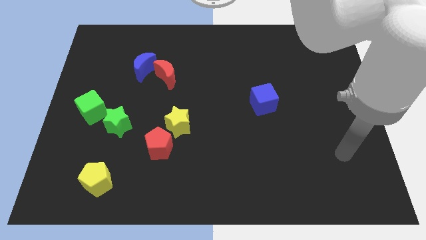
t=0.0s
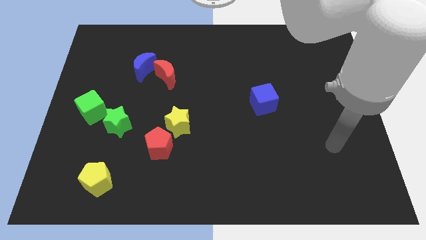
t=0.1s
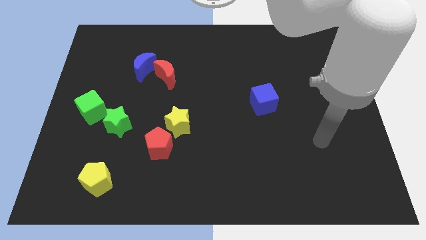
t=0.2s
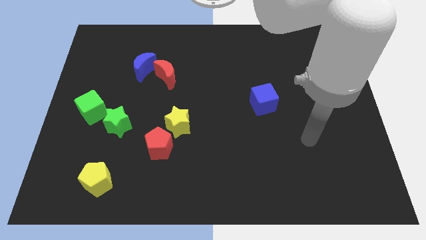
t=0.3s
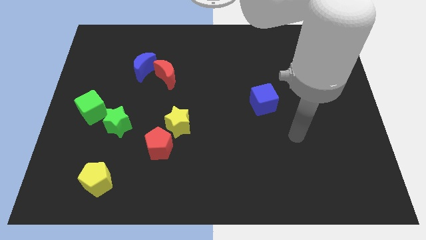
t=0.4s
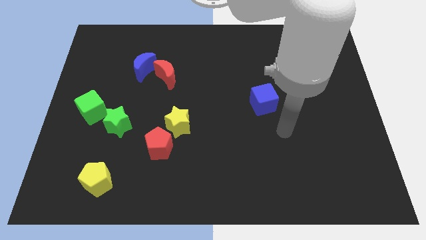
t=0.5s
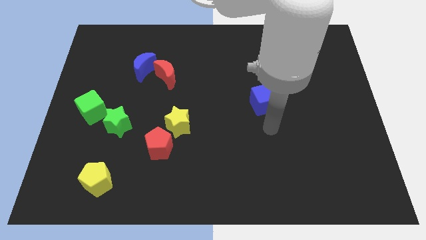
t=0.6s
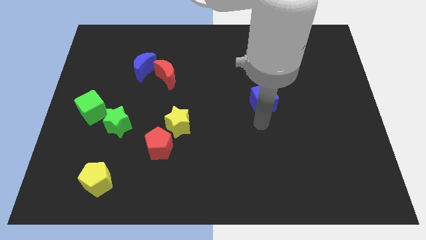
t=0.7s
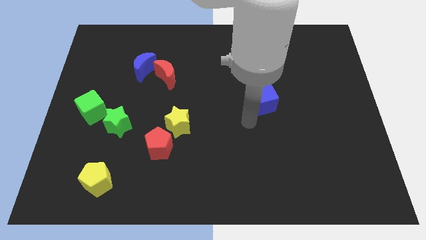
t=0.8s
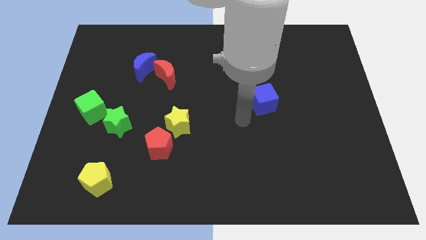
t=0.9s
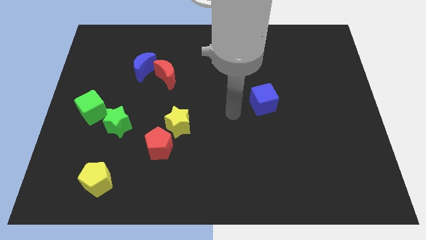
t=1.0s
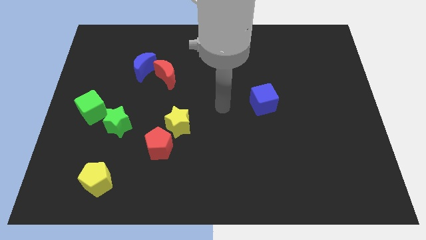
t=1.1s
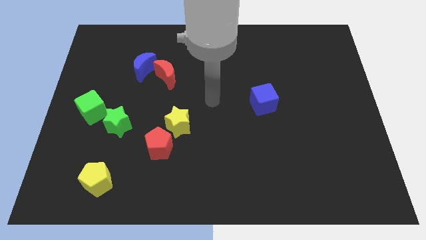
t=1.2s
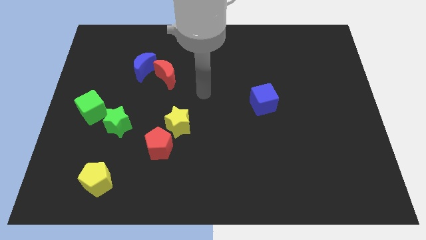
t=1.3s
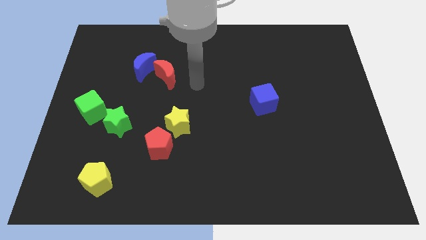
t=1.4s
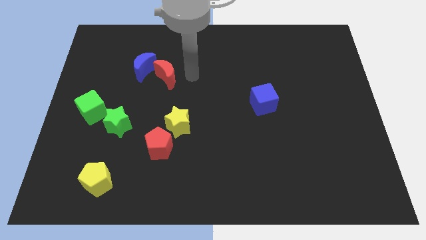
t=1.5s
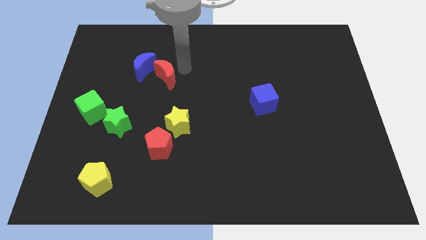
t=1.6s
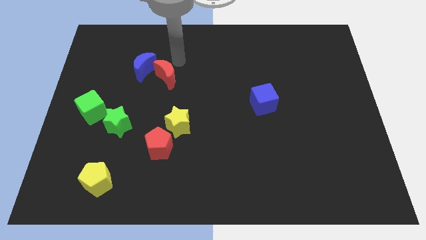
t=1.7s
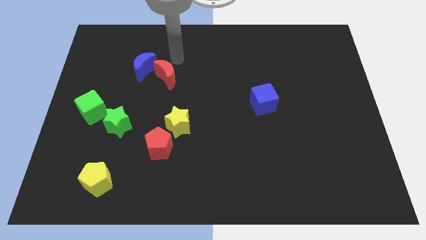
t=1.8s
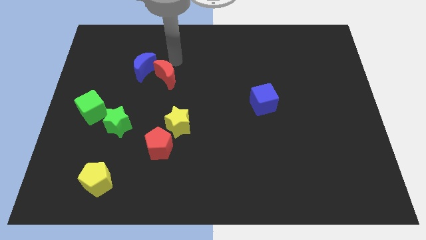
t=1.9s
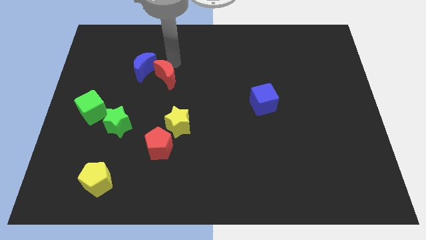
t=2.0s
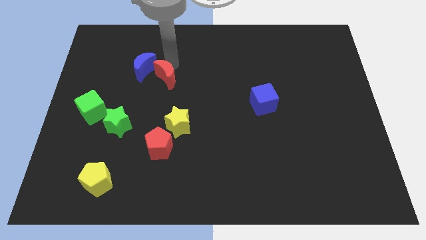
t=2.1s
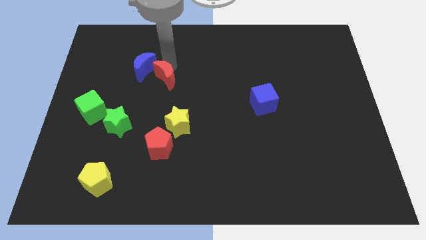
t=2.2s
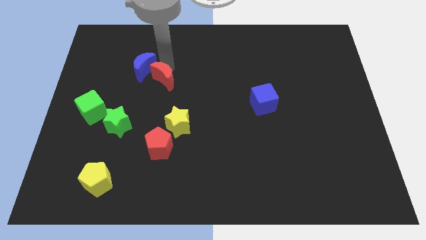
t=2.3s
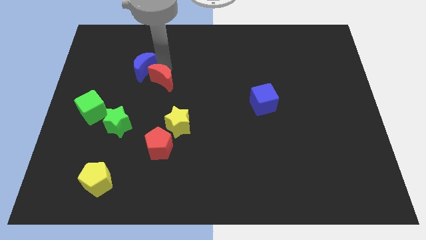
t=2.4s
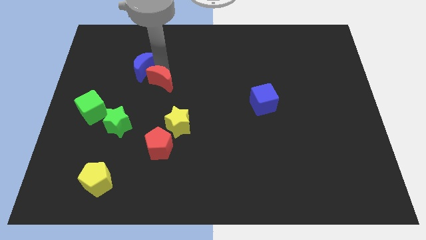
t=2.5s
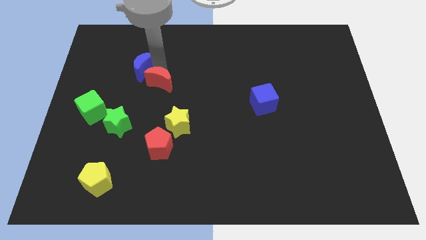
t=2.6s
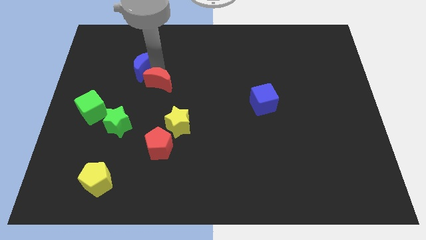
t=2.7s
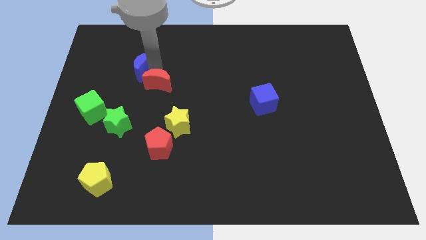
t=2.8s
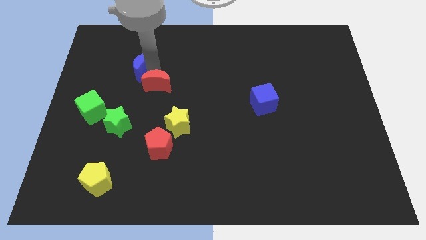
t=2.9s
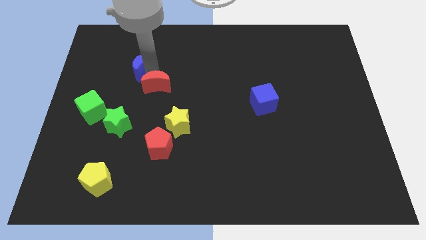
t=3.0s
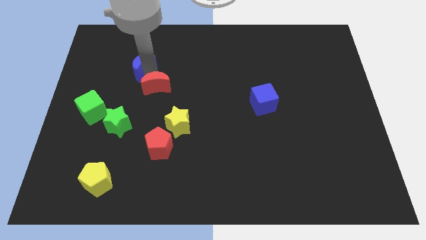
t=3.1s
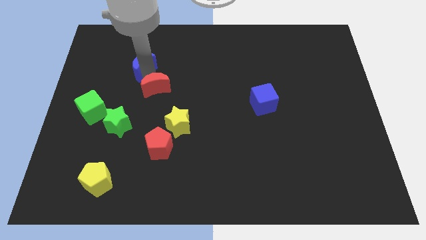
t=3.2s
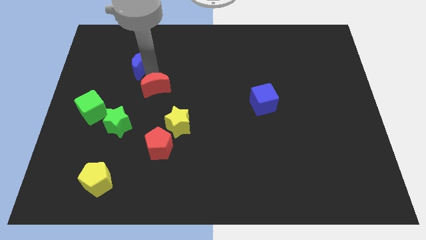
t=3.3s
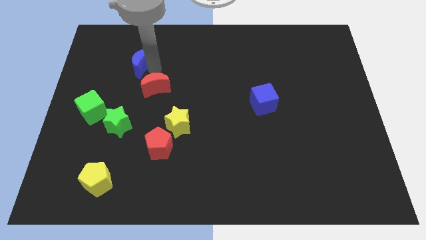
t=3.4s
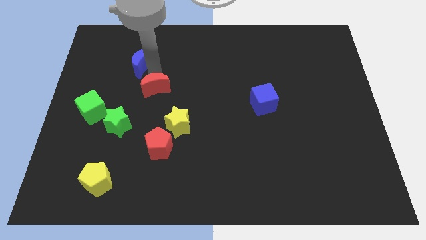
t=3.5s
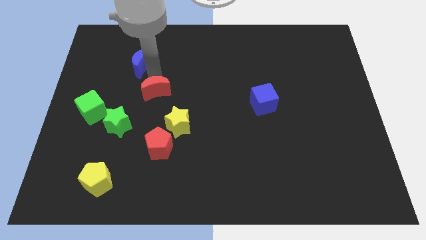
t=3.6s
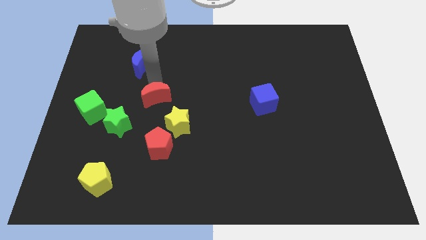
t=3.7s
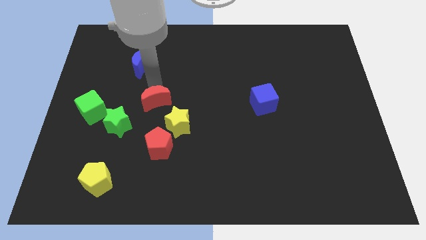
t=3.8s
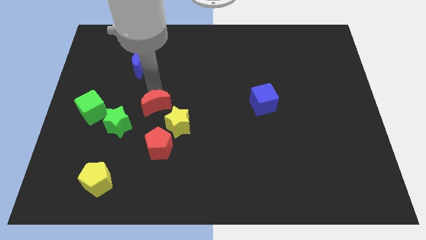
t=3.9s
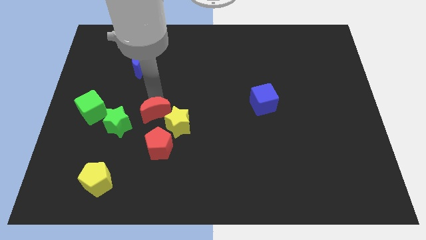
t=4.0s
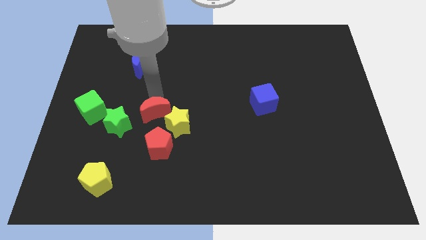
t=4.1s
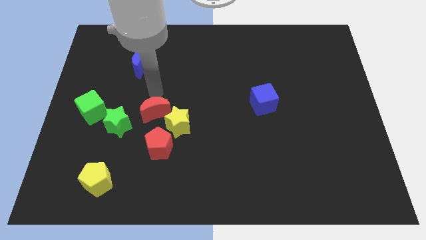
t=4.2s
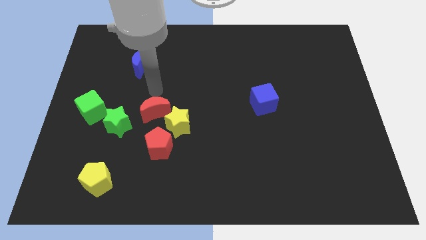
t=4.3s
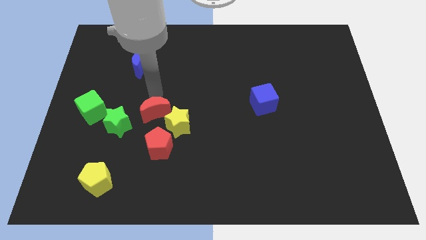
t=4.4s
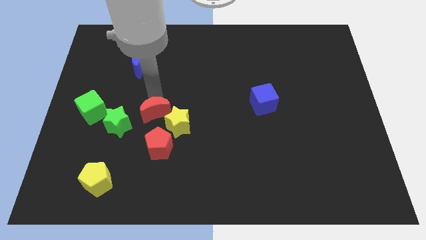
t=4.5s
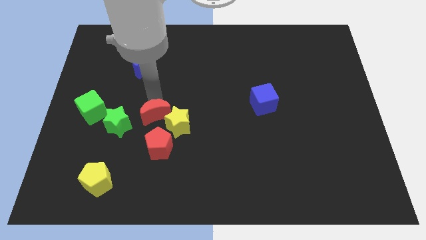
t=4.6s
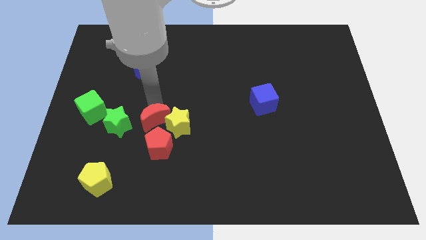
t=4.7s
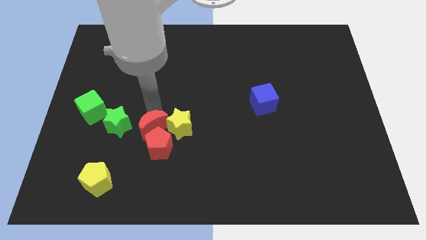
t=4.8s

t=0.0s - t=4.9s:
slide the red moon towards the red pentagon

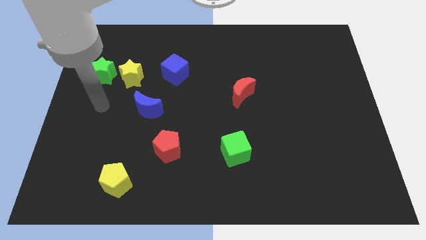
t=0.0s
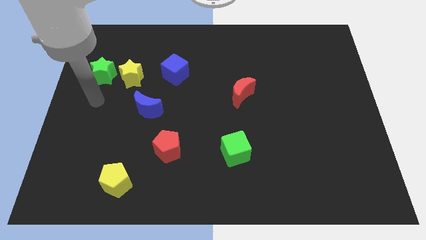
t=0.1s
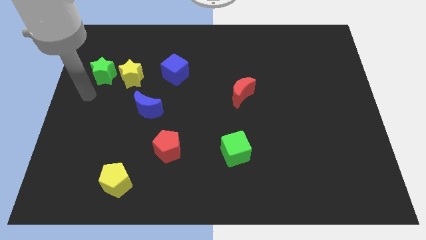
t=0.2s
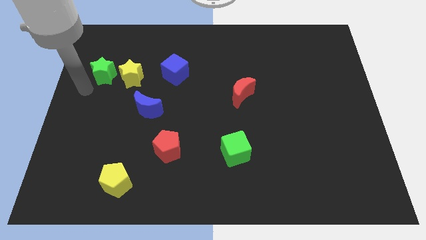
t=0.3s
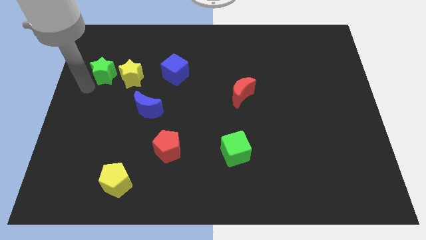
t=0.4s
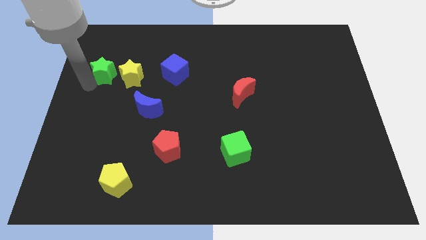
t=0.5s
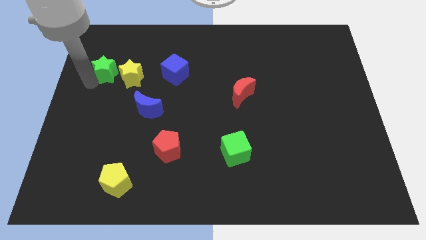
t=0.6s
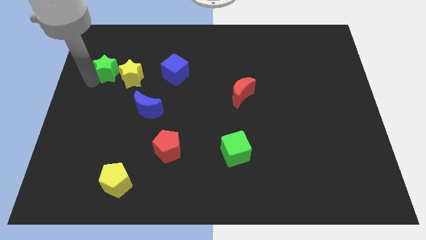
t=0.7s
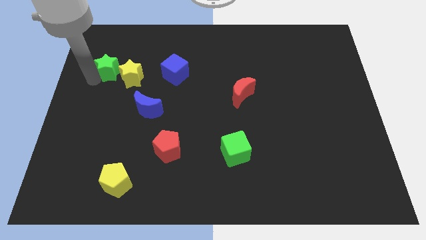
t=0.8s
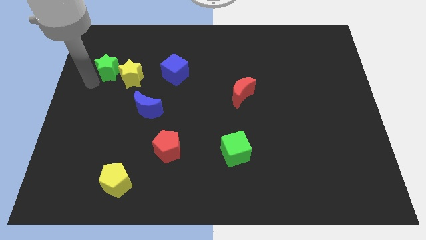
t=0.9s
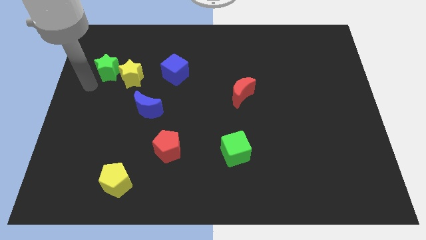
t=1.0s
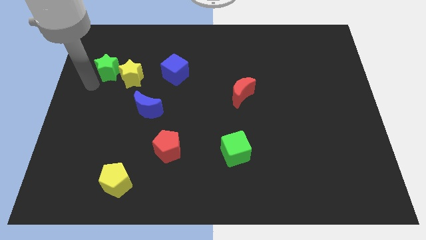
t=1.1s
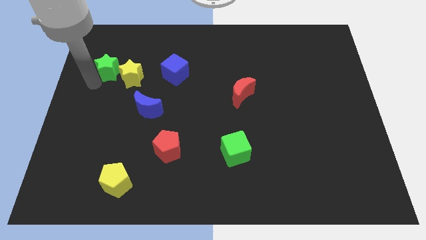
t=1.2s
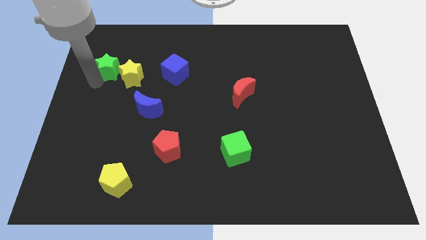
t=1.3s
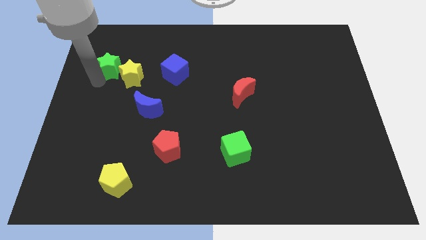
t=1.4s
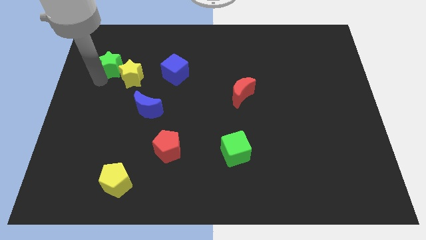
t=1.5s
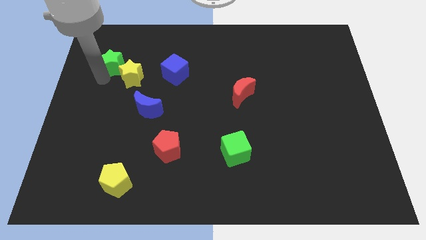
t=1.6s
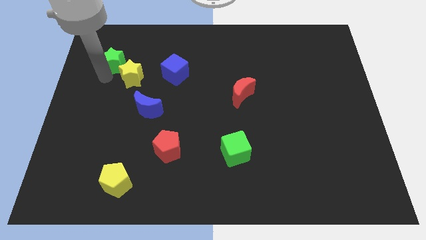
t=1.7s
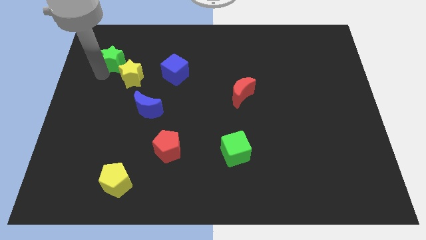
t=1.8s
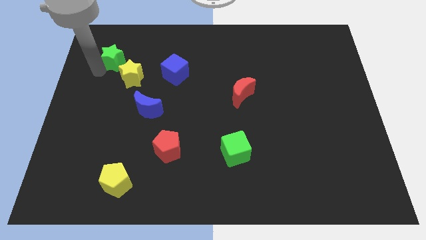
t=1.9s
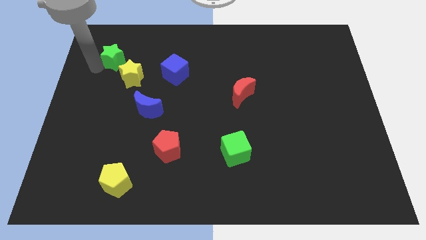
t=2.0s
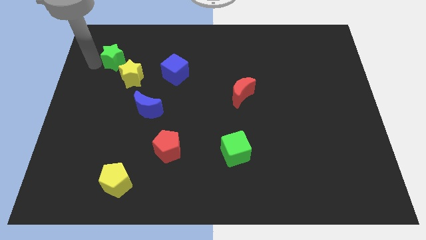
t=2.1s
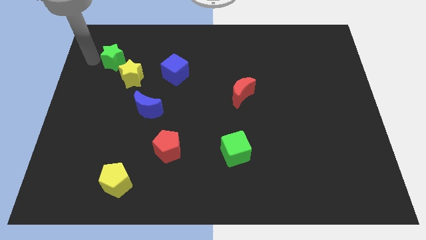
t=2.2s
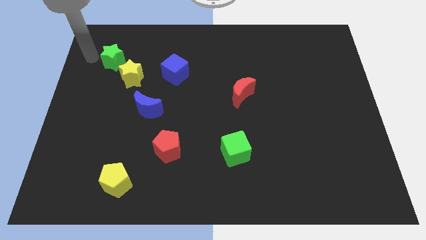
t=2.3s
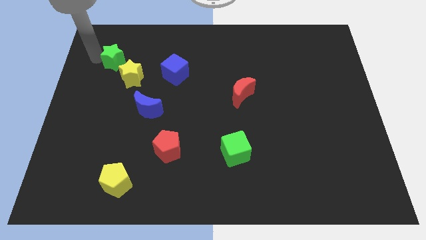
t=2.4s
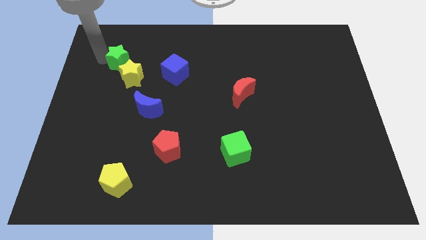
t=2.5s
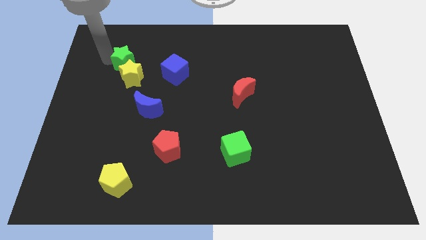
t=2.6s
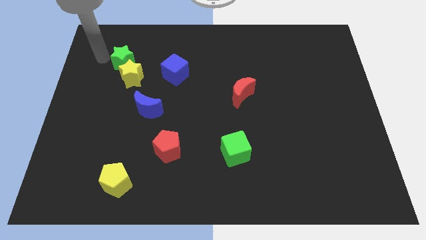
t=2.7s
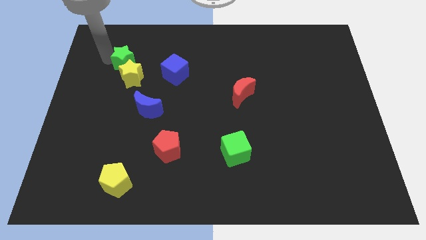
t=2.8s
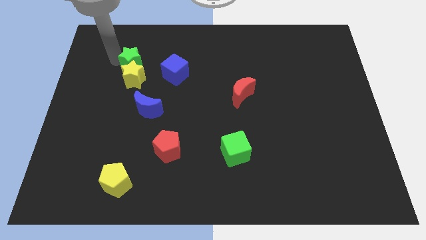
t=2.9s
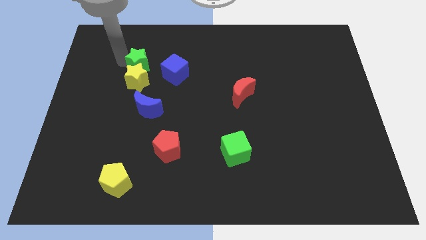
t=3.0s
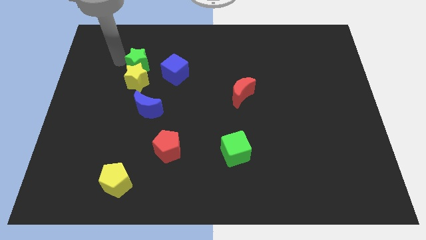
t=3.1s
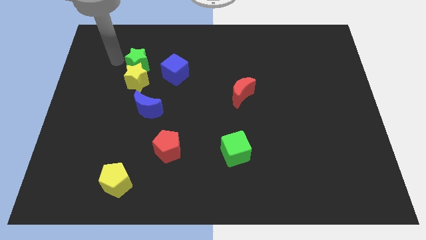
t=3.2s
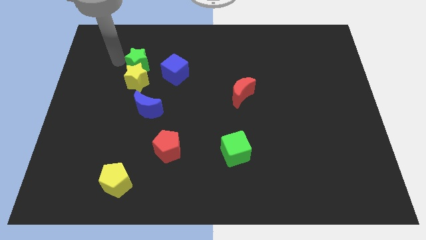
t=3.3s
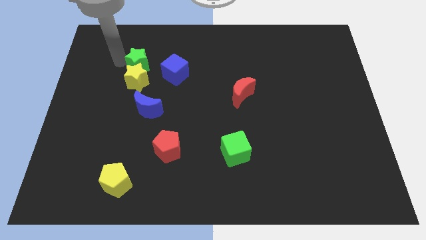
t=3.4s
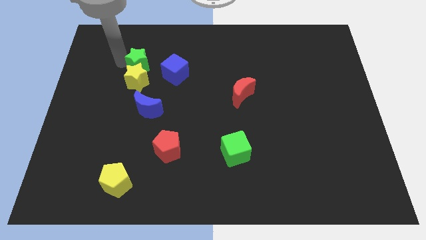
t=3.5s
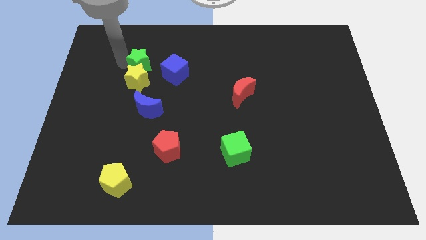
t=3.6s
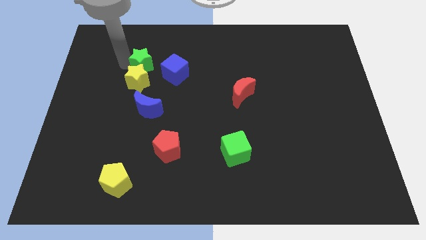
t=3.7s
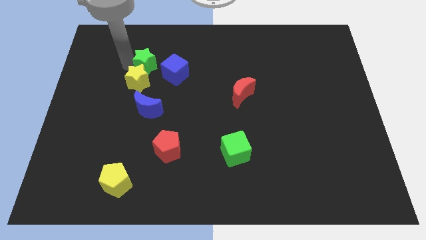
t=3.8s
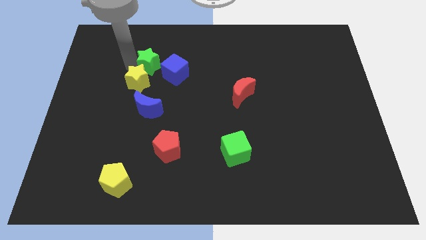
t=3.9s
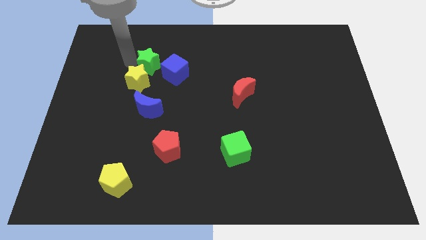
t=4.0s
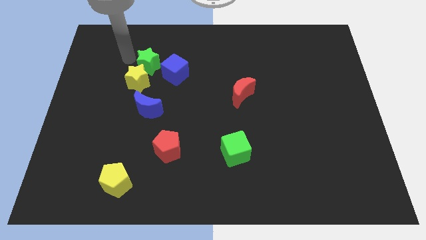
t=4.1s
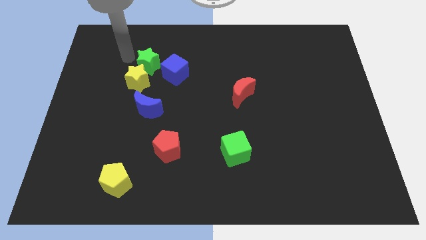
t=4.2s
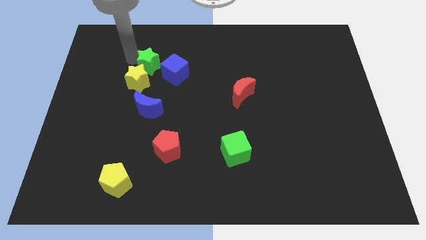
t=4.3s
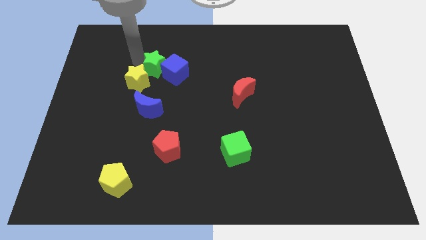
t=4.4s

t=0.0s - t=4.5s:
put the green star next to the blue cube
